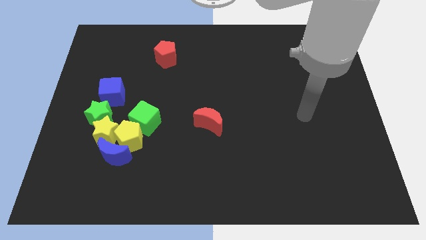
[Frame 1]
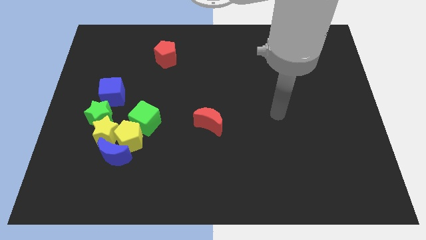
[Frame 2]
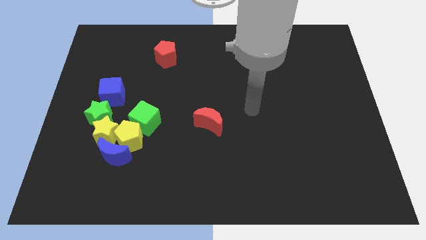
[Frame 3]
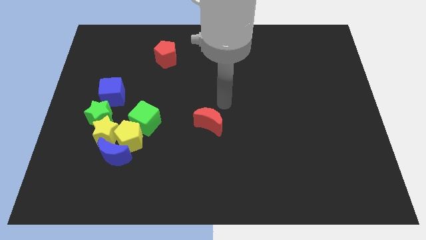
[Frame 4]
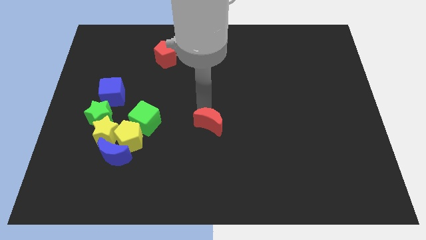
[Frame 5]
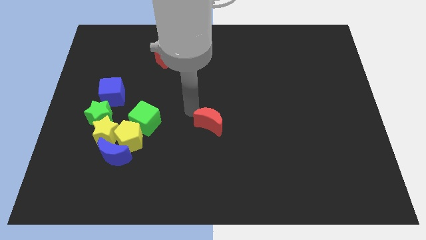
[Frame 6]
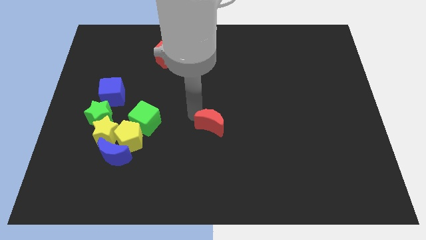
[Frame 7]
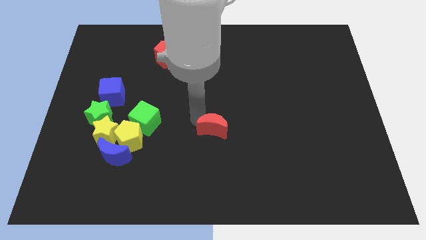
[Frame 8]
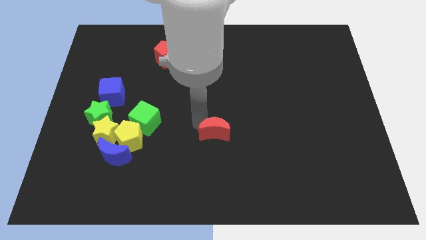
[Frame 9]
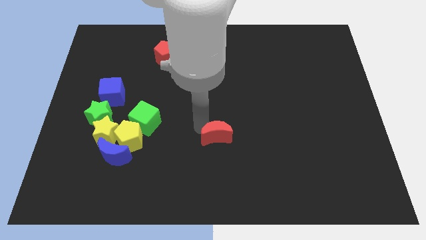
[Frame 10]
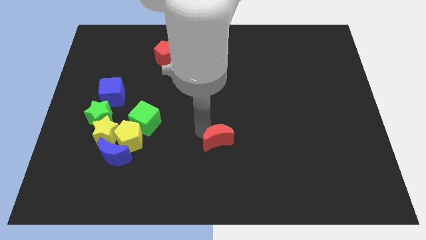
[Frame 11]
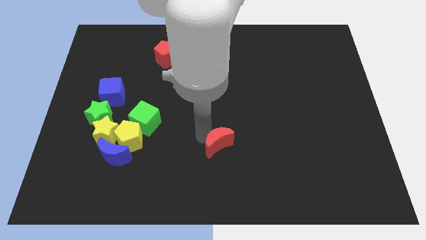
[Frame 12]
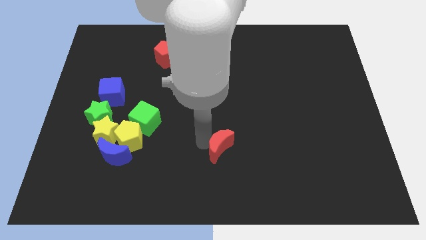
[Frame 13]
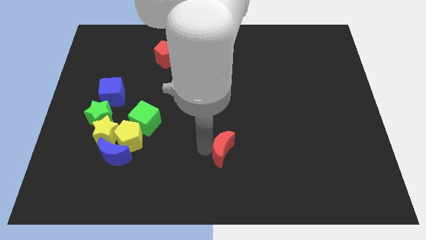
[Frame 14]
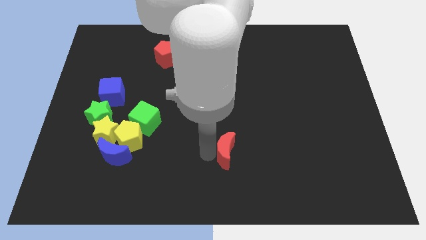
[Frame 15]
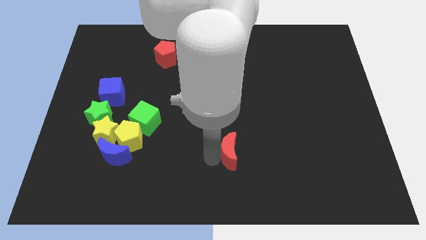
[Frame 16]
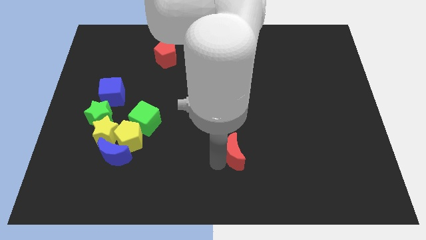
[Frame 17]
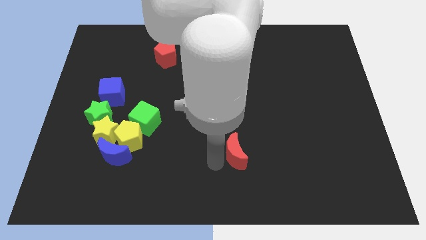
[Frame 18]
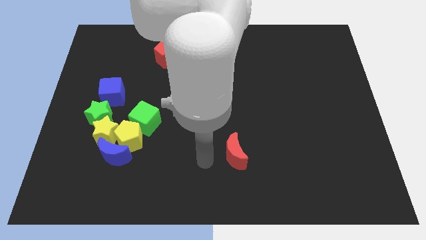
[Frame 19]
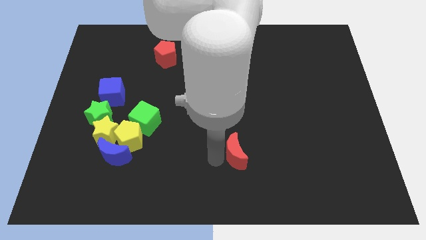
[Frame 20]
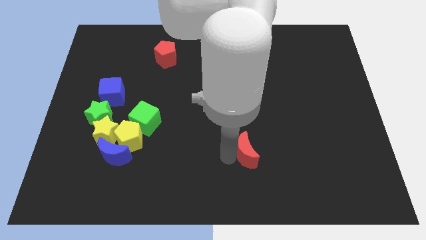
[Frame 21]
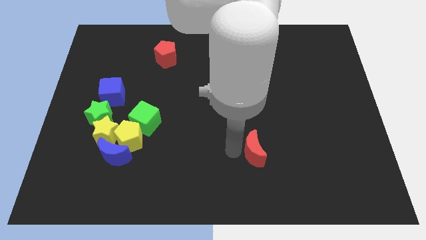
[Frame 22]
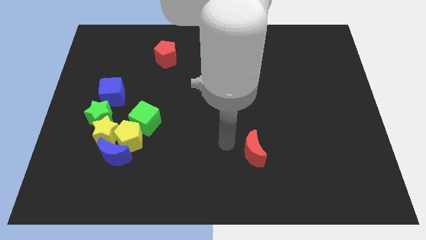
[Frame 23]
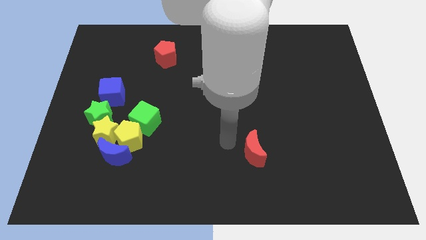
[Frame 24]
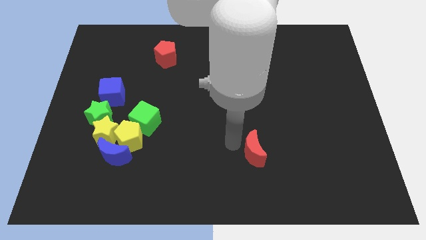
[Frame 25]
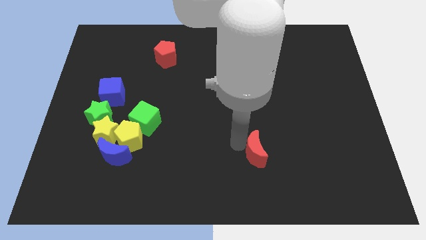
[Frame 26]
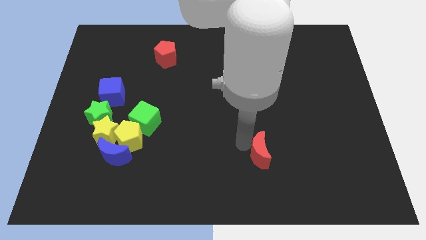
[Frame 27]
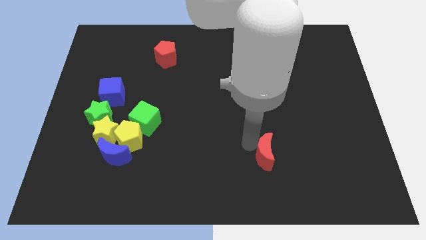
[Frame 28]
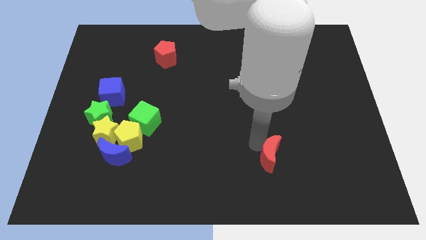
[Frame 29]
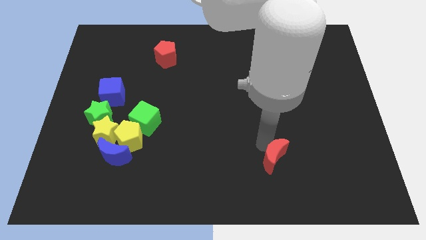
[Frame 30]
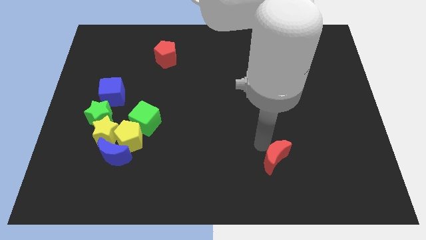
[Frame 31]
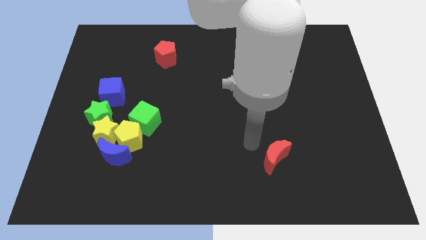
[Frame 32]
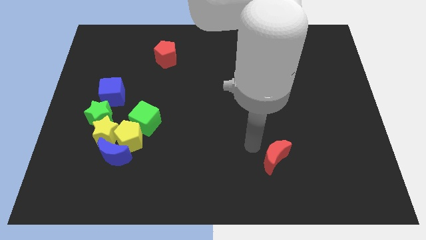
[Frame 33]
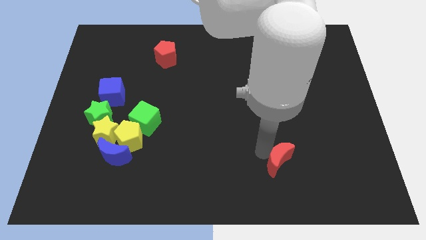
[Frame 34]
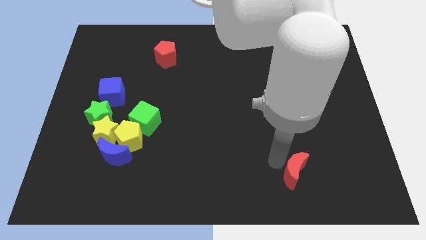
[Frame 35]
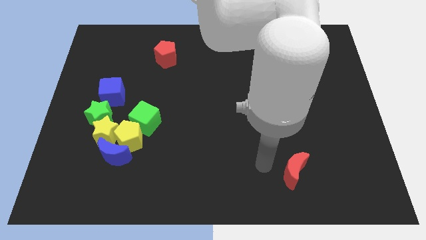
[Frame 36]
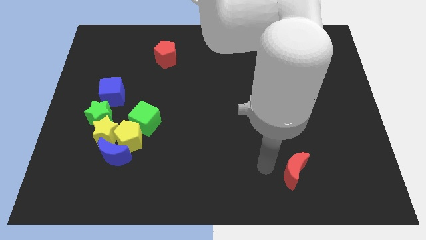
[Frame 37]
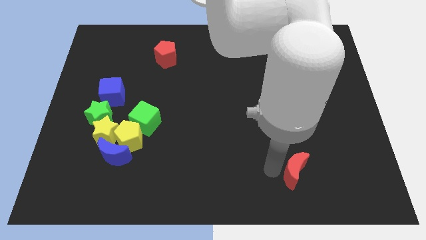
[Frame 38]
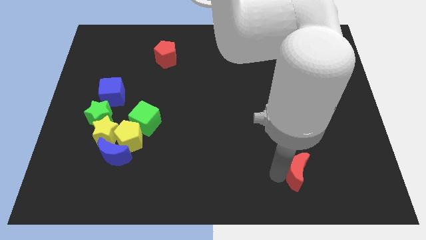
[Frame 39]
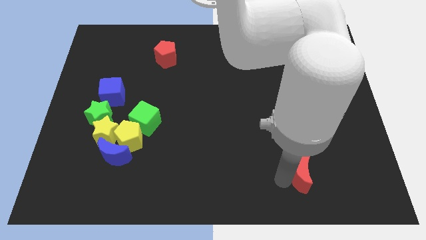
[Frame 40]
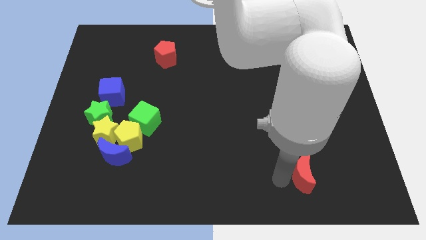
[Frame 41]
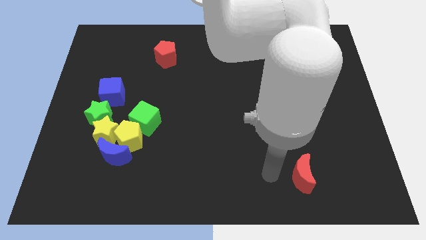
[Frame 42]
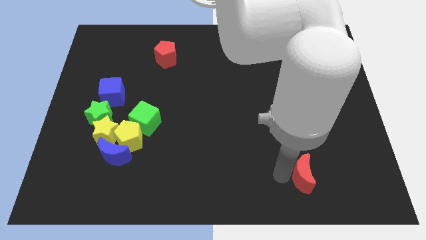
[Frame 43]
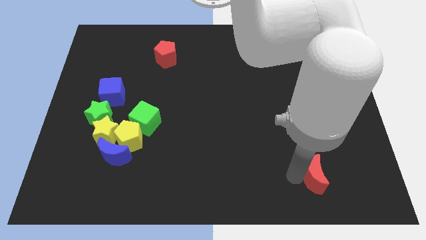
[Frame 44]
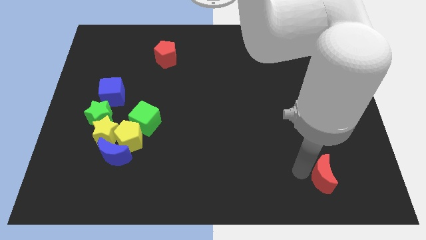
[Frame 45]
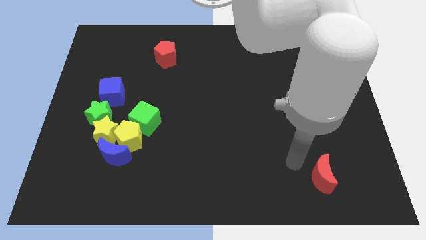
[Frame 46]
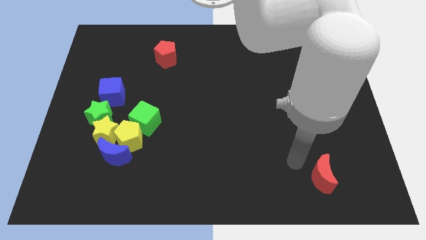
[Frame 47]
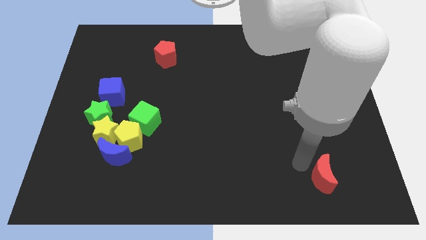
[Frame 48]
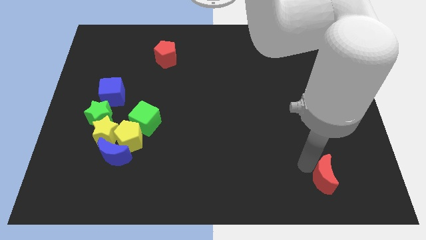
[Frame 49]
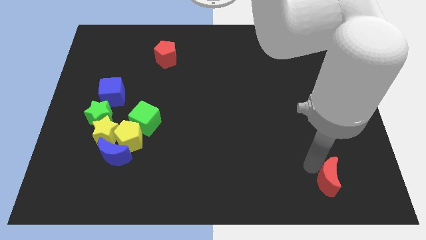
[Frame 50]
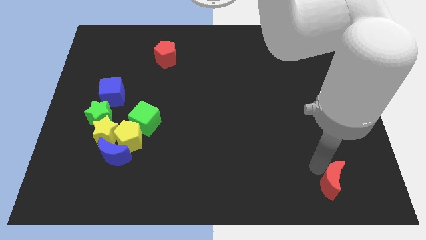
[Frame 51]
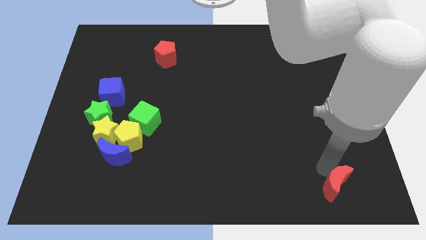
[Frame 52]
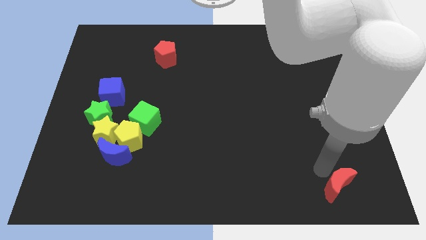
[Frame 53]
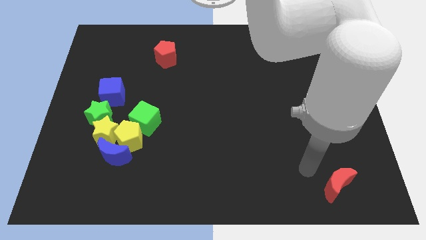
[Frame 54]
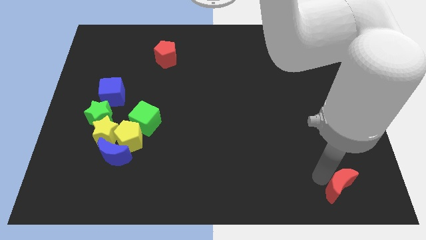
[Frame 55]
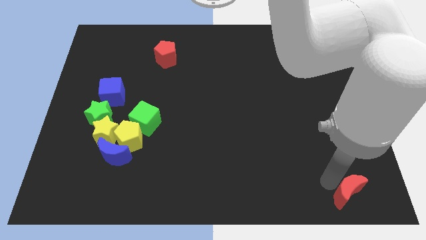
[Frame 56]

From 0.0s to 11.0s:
move the red moon to the bottom right corner

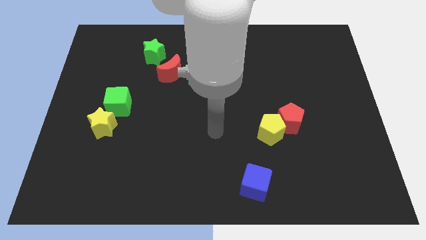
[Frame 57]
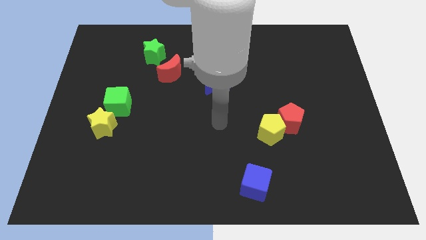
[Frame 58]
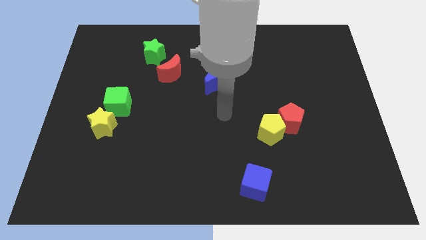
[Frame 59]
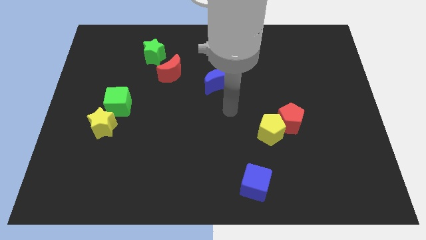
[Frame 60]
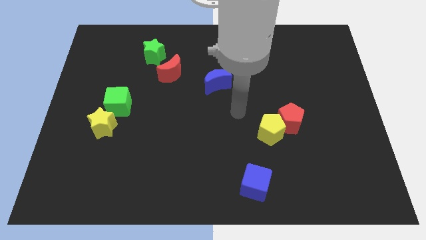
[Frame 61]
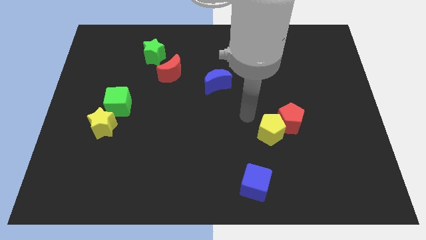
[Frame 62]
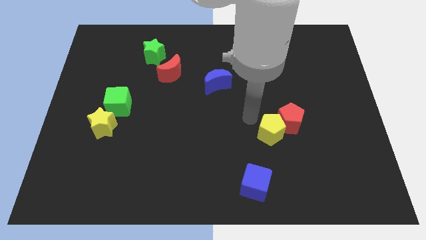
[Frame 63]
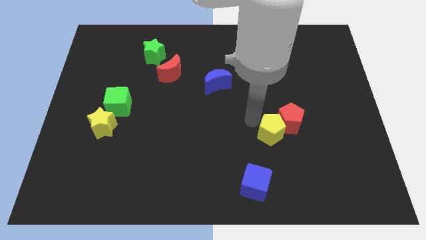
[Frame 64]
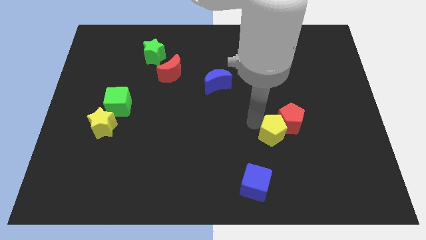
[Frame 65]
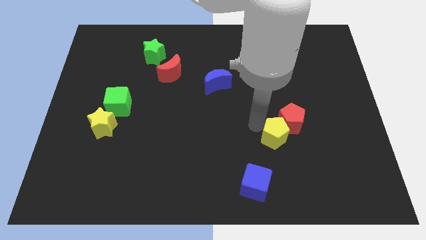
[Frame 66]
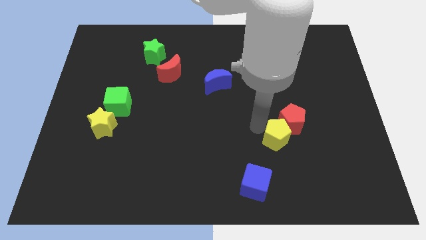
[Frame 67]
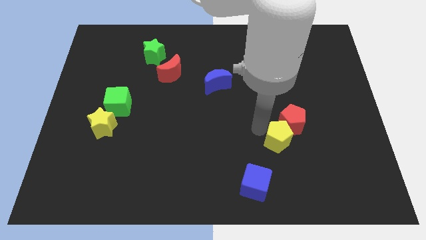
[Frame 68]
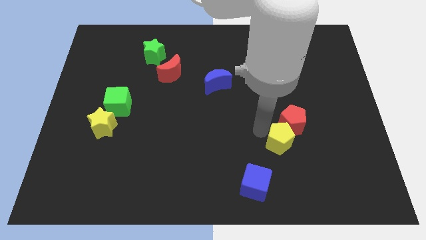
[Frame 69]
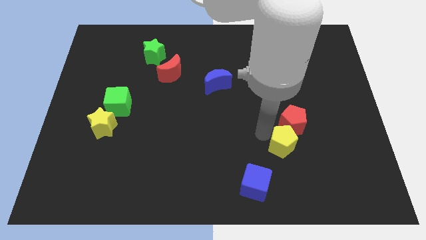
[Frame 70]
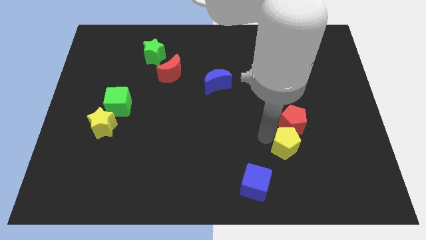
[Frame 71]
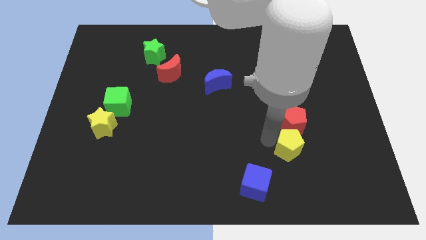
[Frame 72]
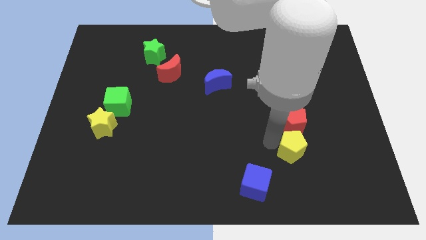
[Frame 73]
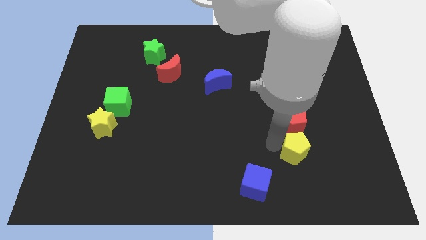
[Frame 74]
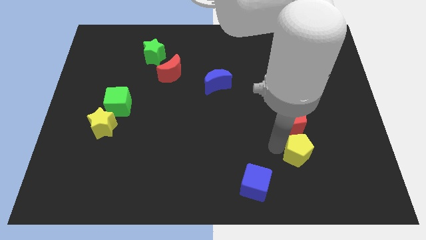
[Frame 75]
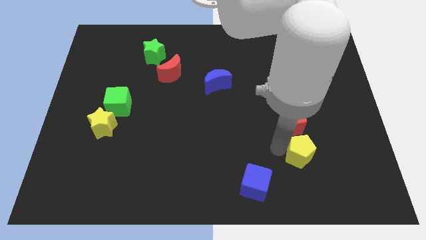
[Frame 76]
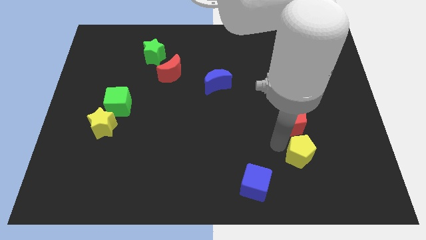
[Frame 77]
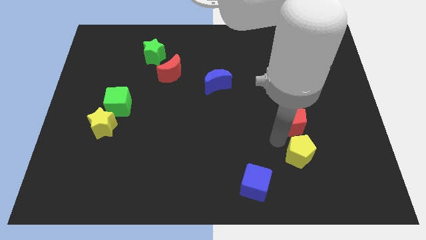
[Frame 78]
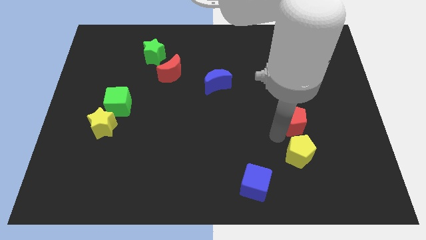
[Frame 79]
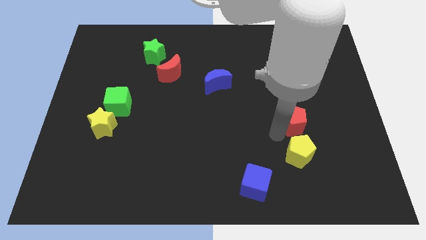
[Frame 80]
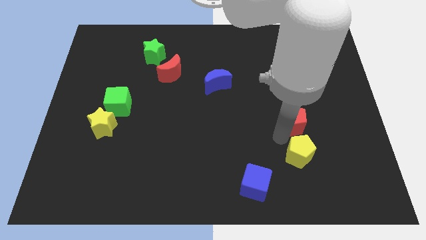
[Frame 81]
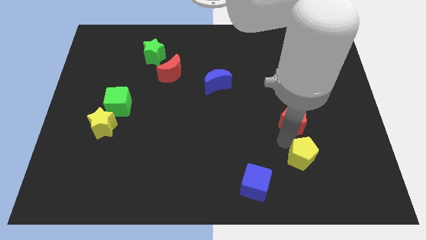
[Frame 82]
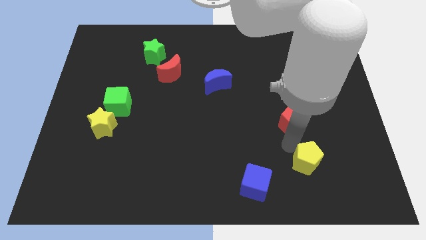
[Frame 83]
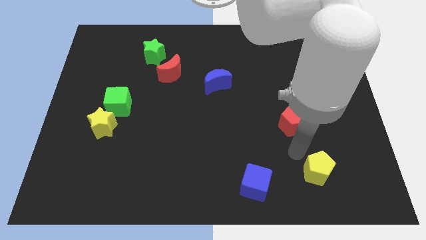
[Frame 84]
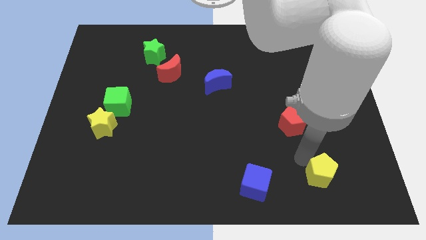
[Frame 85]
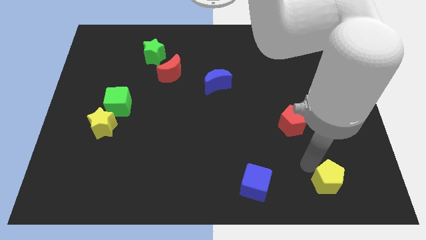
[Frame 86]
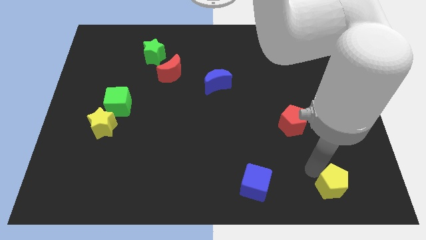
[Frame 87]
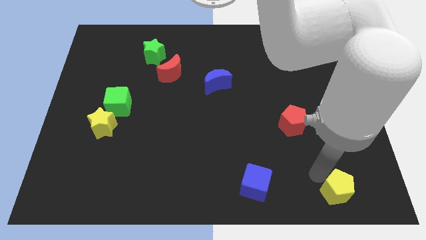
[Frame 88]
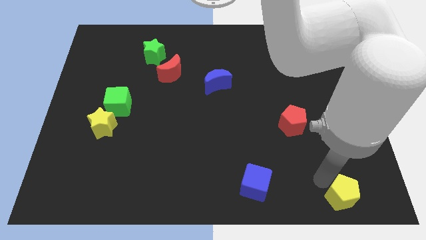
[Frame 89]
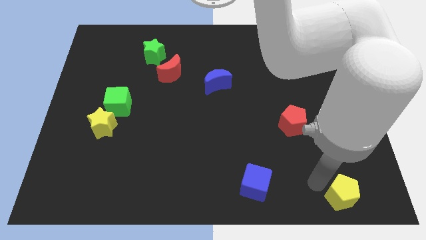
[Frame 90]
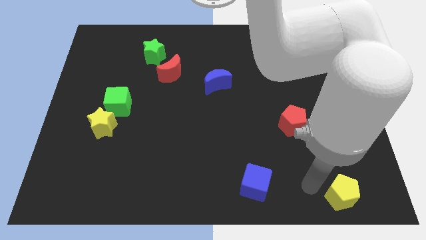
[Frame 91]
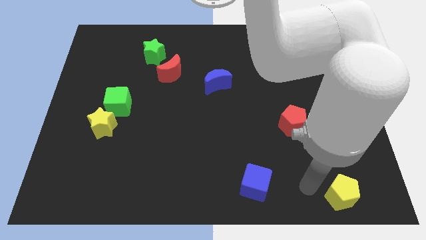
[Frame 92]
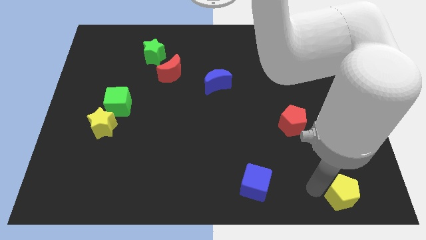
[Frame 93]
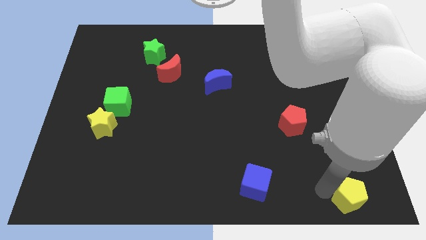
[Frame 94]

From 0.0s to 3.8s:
slide the yellow pentagon to the lower right corner
